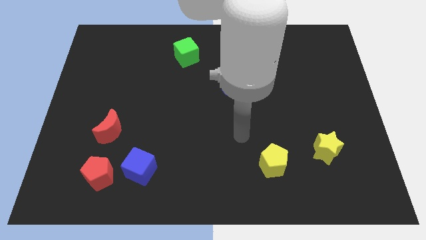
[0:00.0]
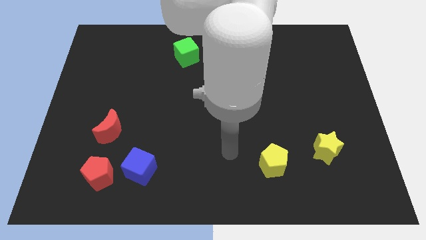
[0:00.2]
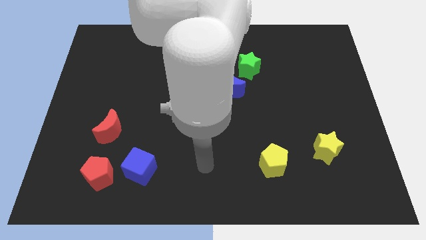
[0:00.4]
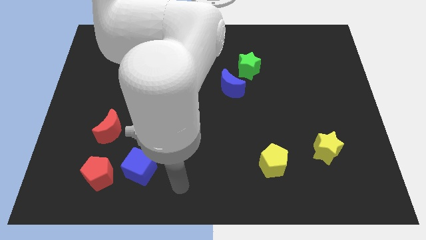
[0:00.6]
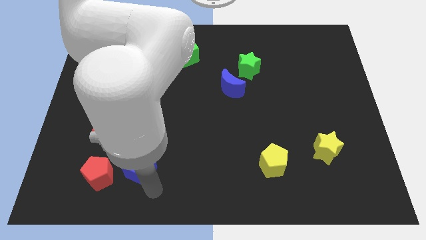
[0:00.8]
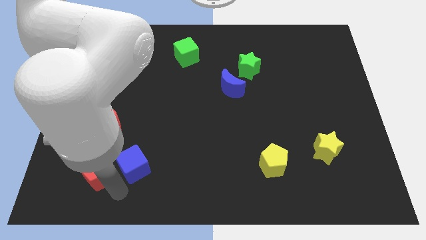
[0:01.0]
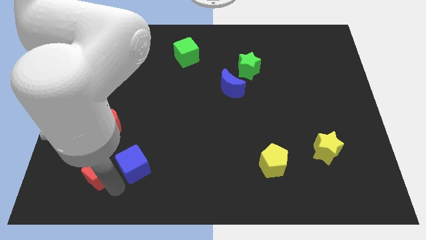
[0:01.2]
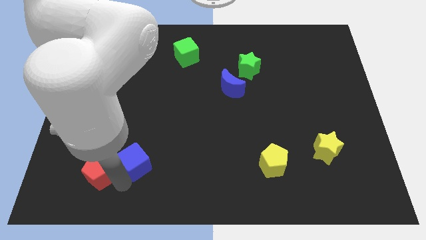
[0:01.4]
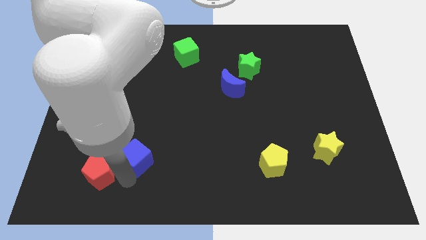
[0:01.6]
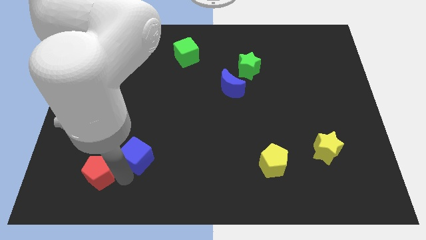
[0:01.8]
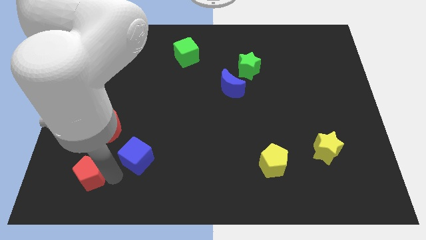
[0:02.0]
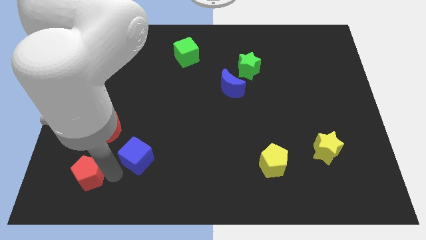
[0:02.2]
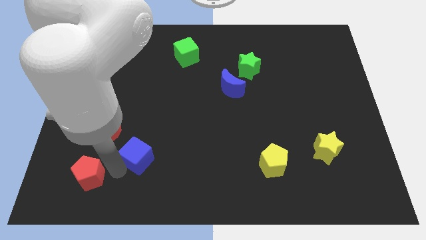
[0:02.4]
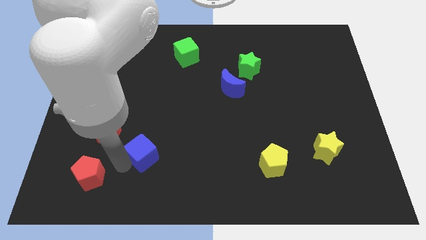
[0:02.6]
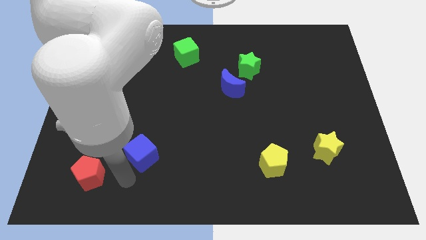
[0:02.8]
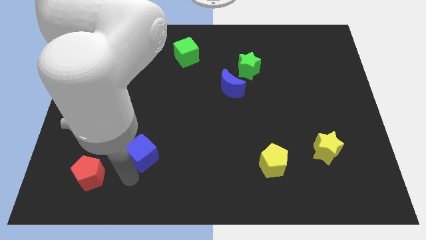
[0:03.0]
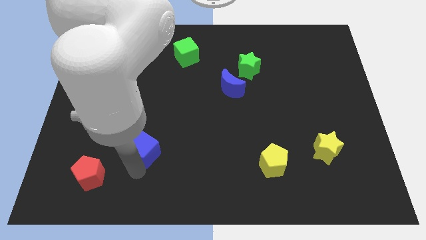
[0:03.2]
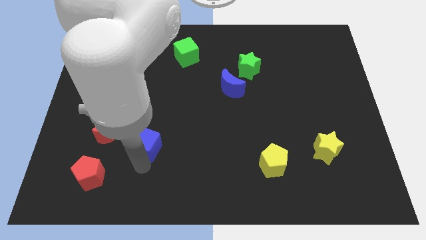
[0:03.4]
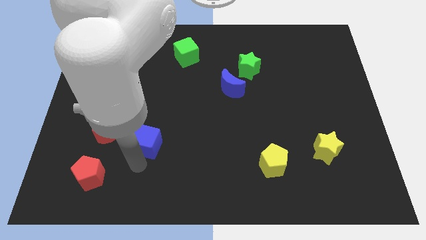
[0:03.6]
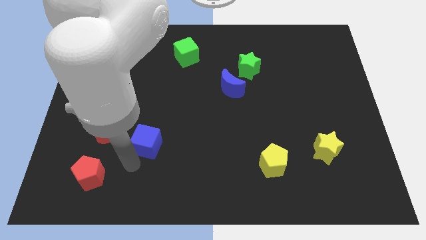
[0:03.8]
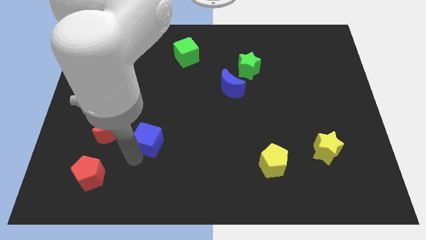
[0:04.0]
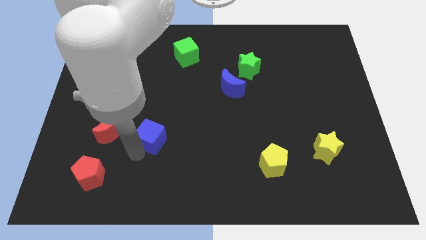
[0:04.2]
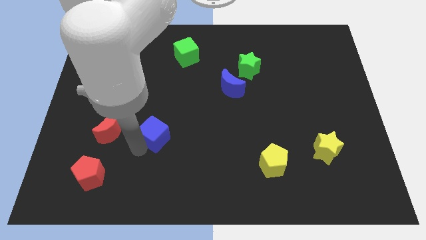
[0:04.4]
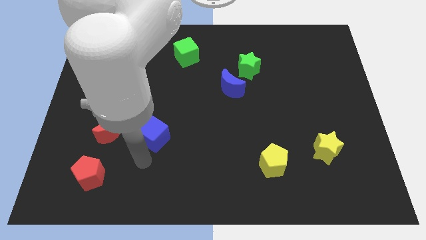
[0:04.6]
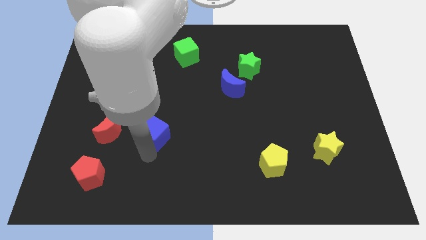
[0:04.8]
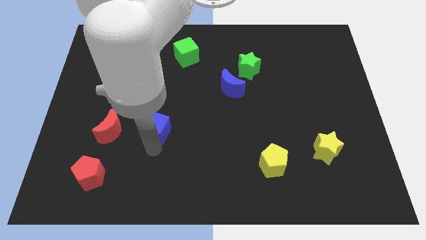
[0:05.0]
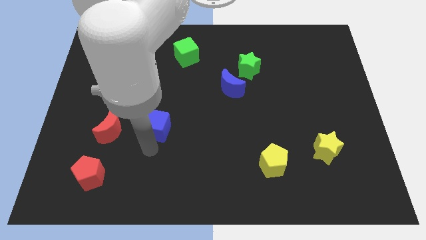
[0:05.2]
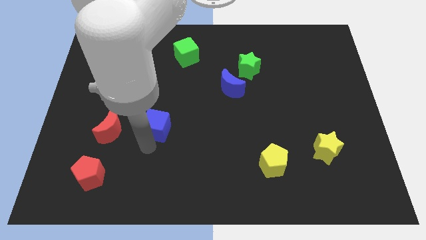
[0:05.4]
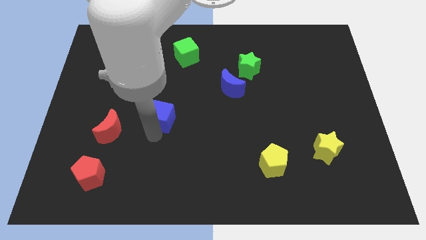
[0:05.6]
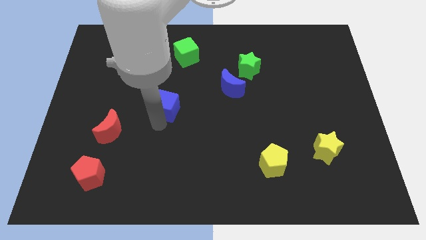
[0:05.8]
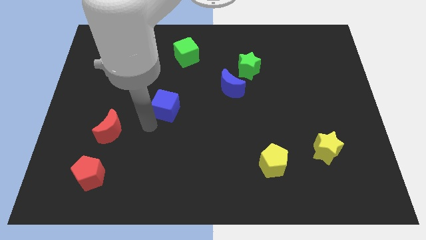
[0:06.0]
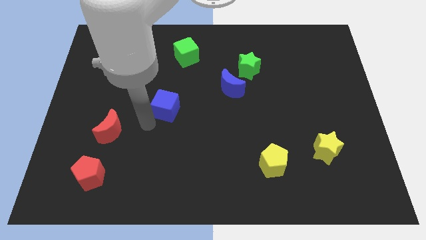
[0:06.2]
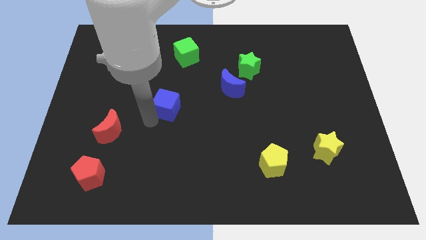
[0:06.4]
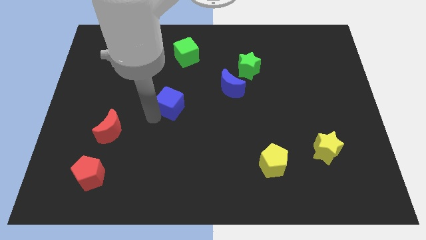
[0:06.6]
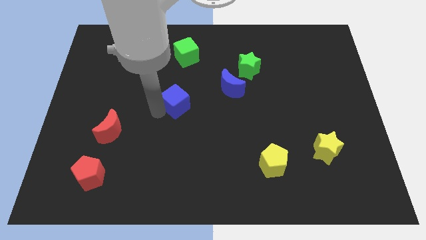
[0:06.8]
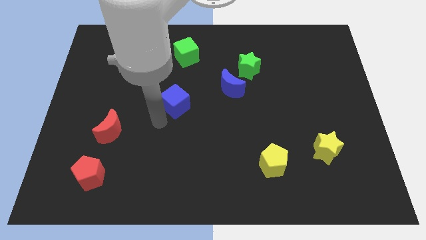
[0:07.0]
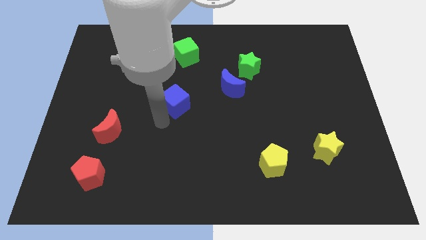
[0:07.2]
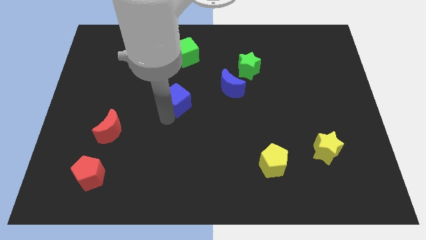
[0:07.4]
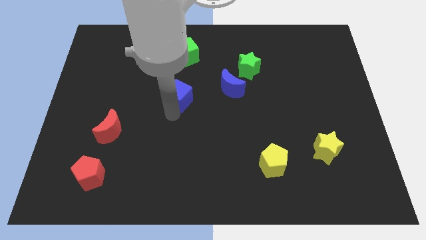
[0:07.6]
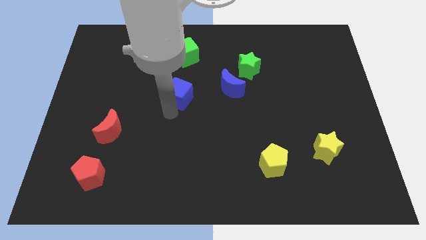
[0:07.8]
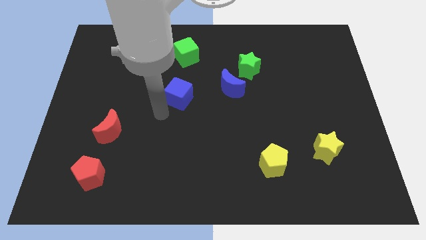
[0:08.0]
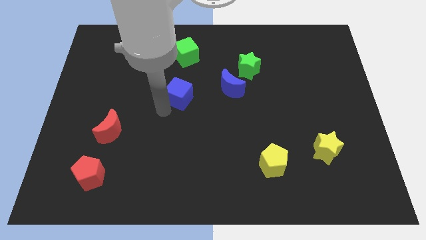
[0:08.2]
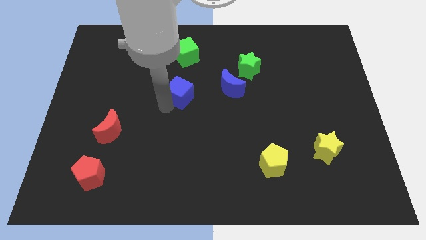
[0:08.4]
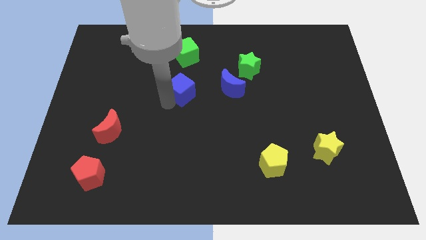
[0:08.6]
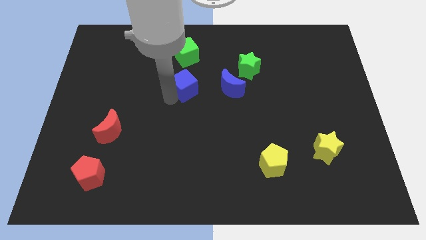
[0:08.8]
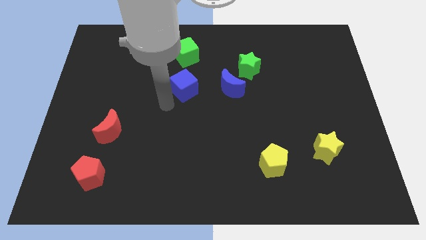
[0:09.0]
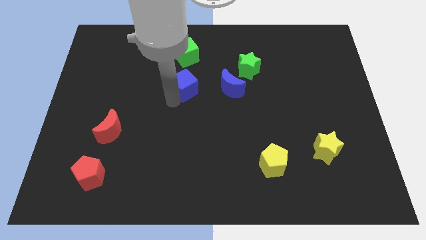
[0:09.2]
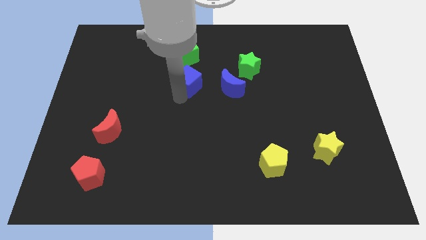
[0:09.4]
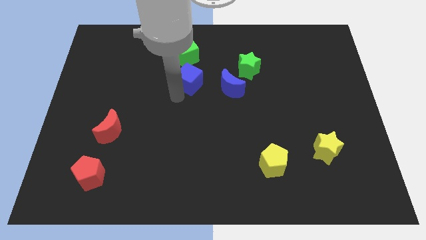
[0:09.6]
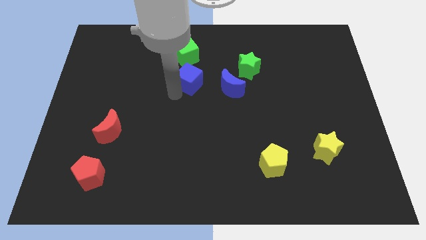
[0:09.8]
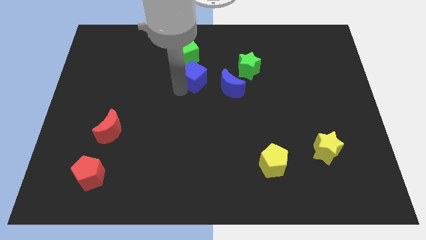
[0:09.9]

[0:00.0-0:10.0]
put the blue cube to the left side of the green star

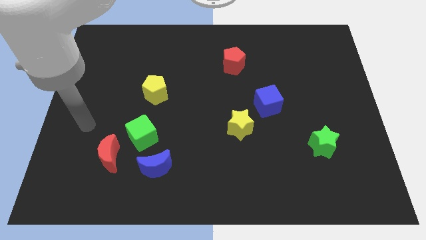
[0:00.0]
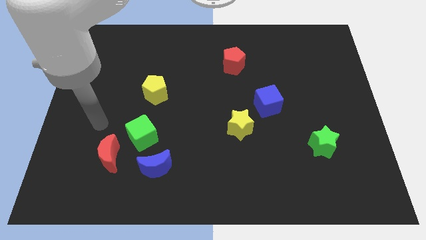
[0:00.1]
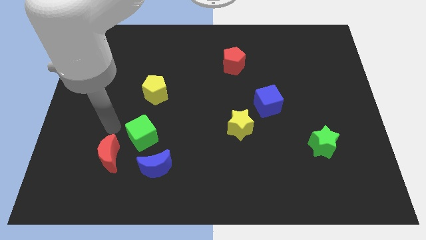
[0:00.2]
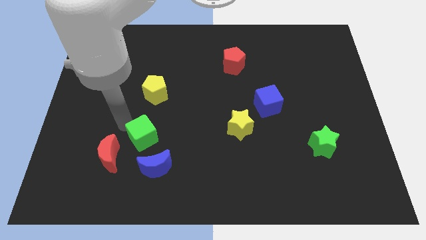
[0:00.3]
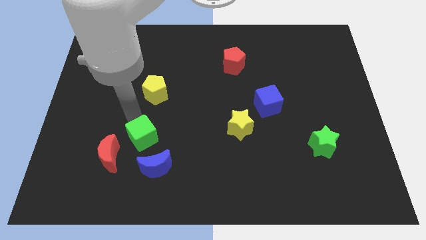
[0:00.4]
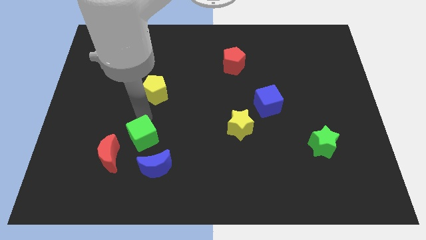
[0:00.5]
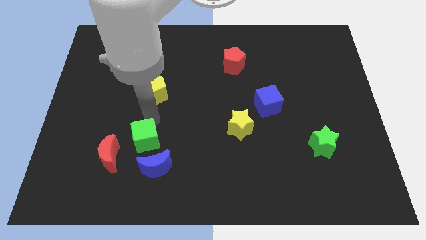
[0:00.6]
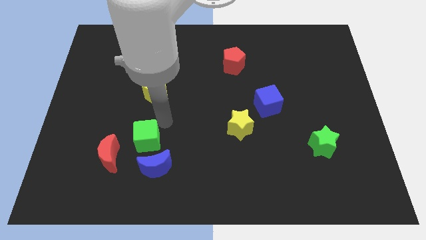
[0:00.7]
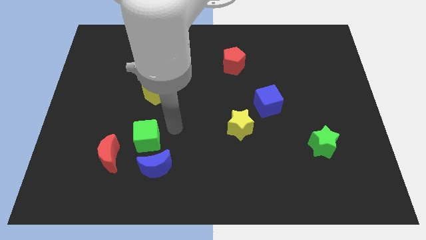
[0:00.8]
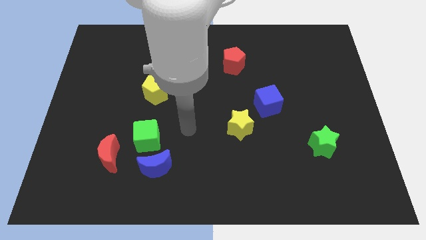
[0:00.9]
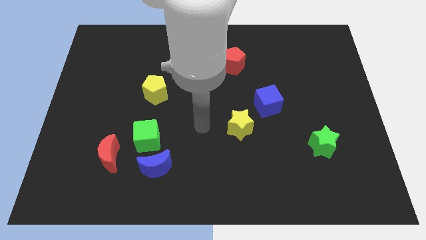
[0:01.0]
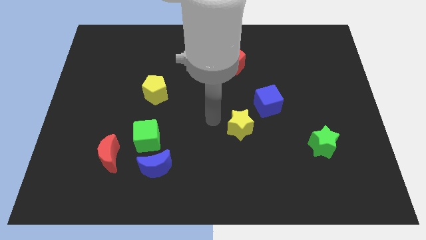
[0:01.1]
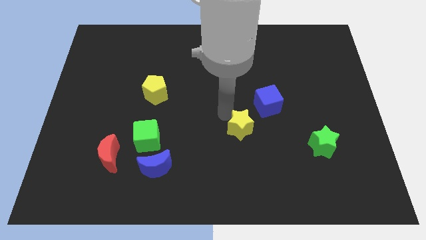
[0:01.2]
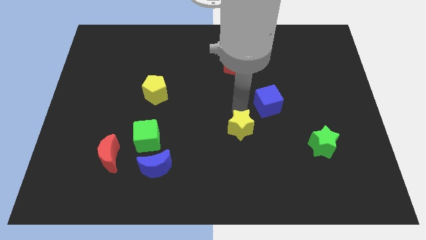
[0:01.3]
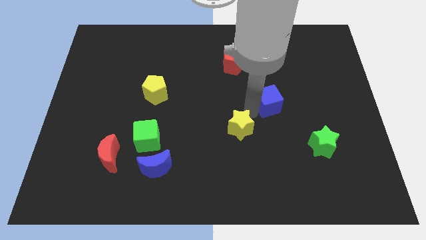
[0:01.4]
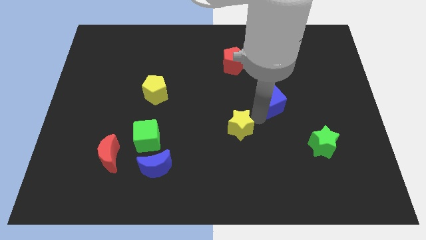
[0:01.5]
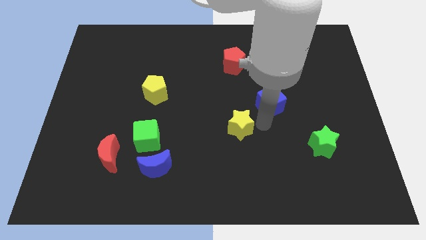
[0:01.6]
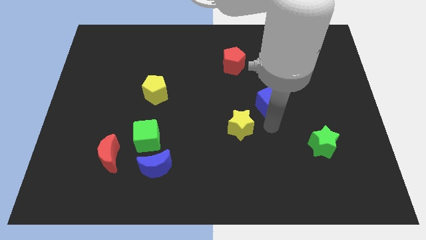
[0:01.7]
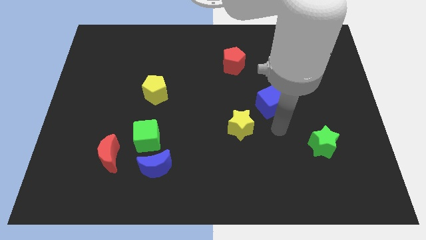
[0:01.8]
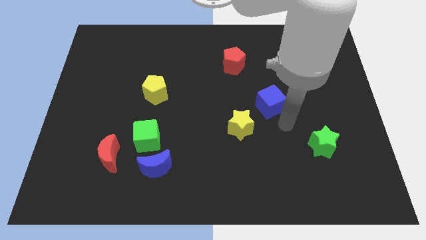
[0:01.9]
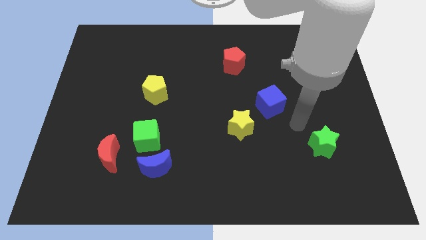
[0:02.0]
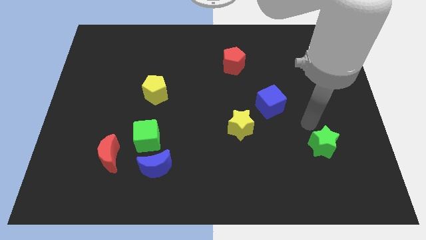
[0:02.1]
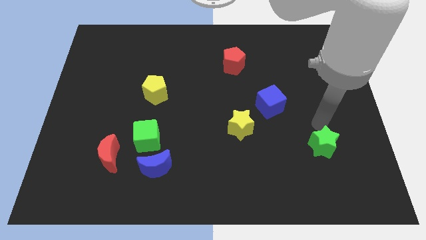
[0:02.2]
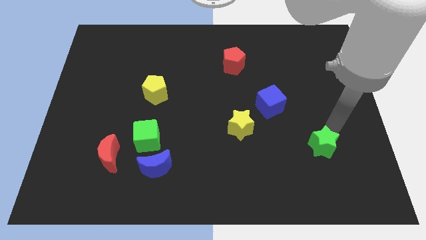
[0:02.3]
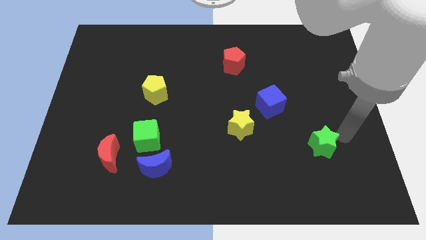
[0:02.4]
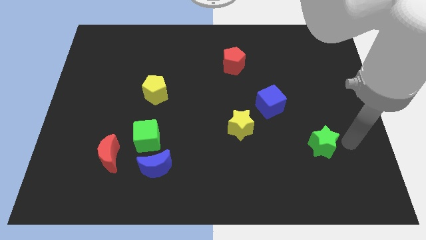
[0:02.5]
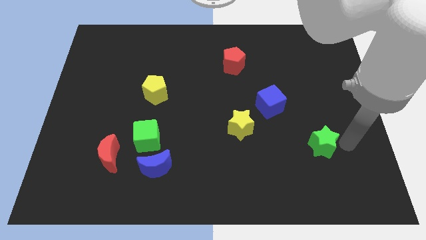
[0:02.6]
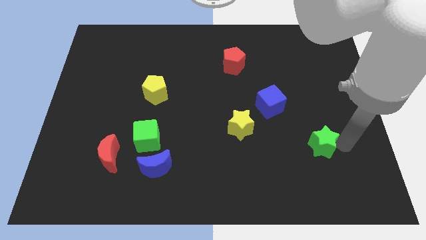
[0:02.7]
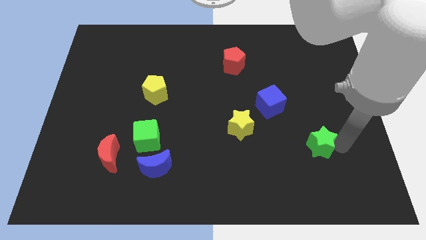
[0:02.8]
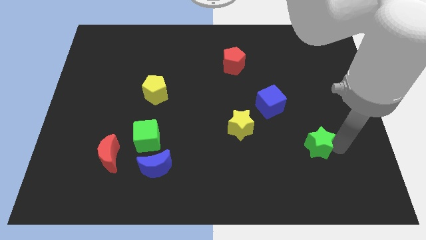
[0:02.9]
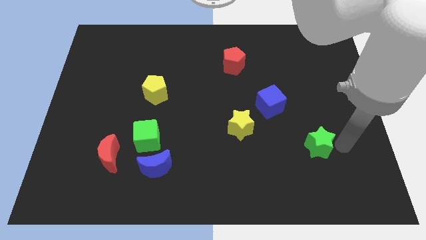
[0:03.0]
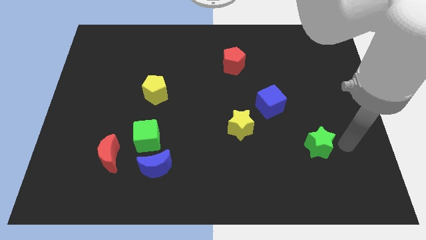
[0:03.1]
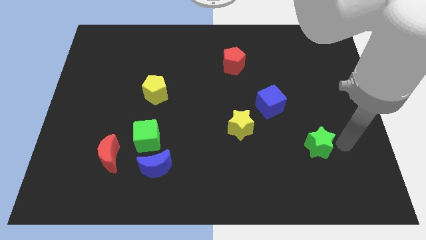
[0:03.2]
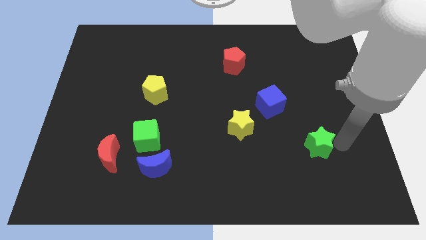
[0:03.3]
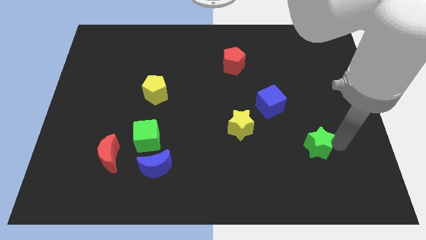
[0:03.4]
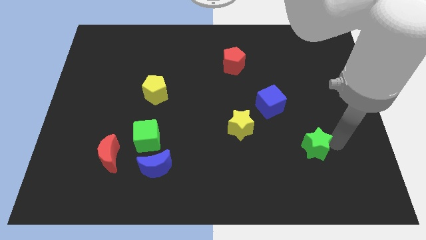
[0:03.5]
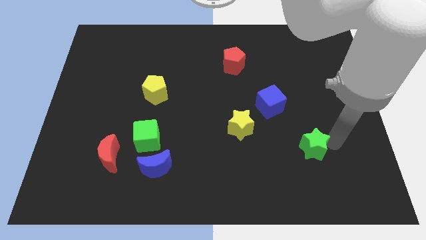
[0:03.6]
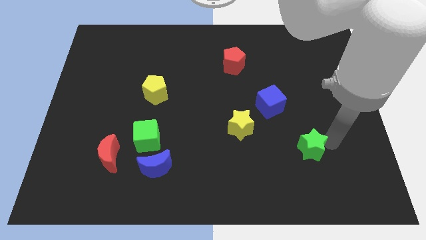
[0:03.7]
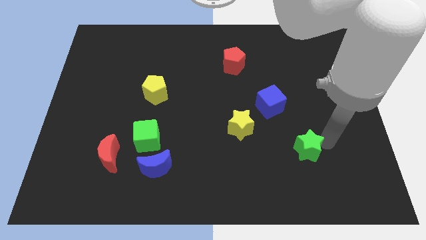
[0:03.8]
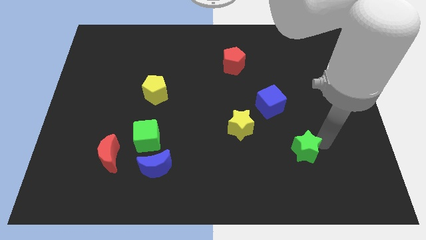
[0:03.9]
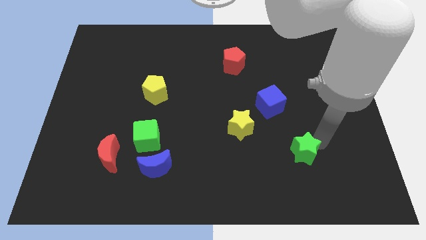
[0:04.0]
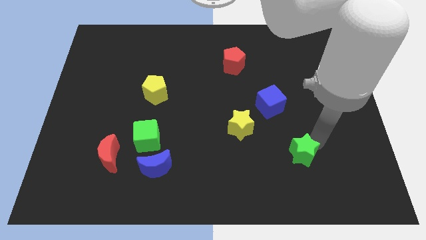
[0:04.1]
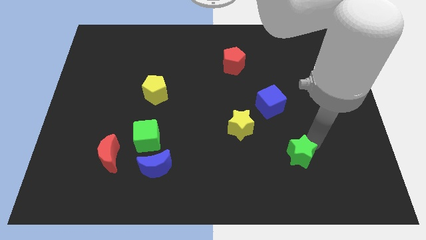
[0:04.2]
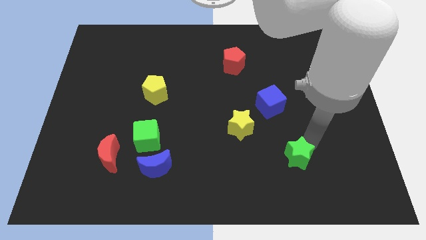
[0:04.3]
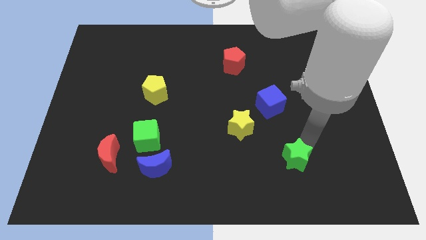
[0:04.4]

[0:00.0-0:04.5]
put the green star below the blue cube
